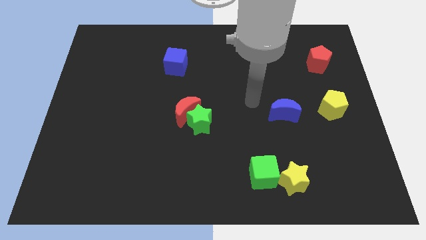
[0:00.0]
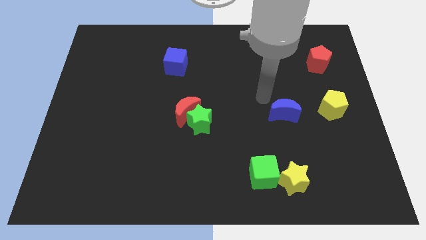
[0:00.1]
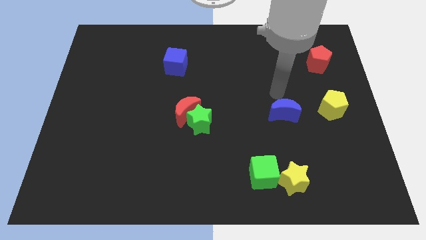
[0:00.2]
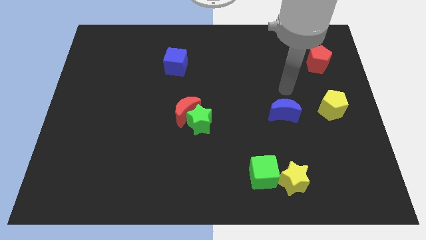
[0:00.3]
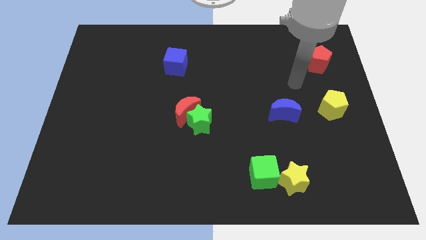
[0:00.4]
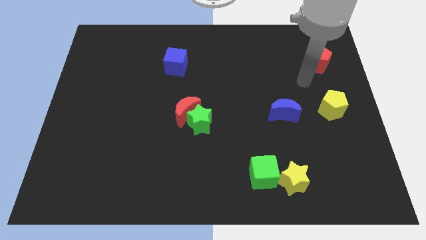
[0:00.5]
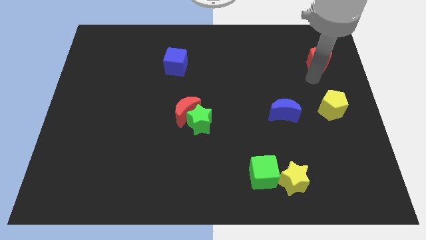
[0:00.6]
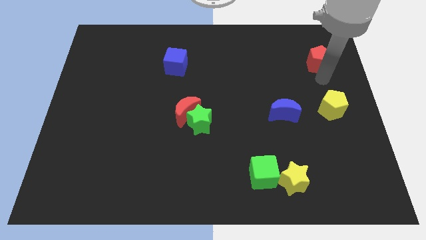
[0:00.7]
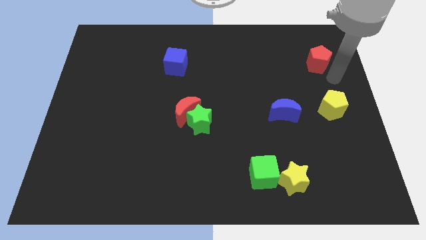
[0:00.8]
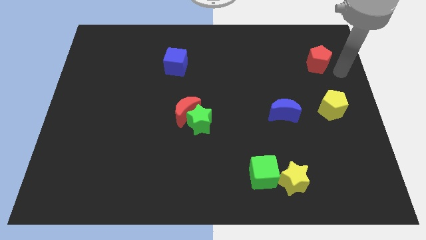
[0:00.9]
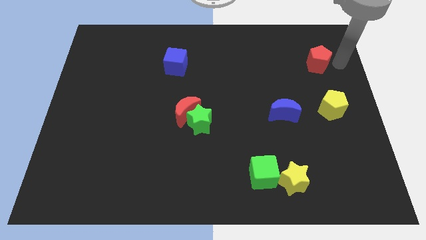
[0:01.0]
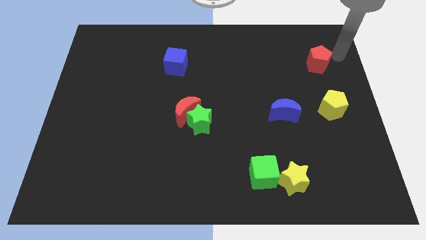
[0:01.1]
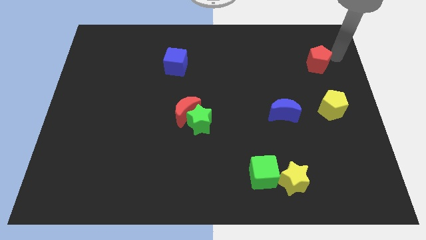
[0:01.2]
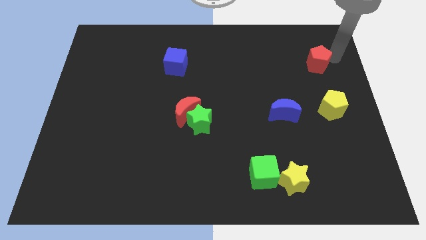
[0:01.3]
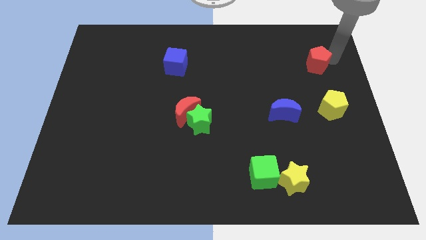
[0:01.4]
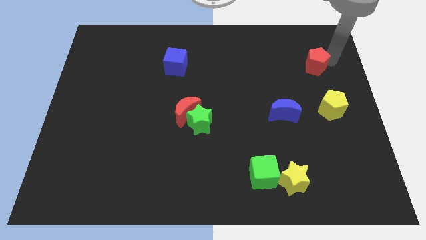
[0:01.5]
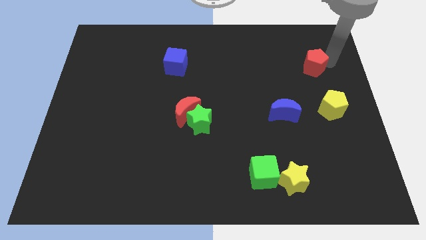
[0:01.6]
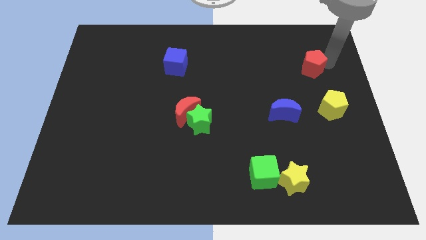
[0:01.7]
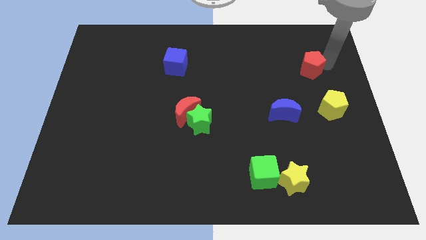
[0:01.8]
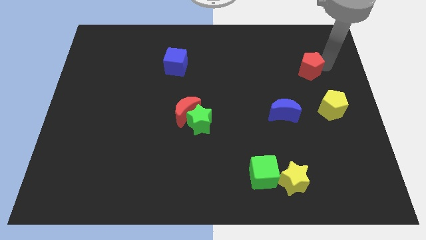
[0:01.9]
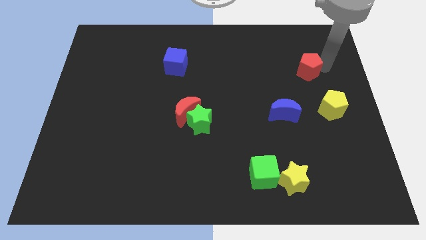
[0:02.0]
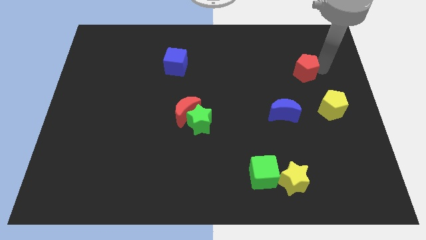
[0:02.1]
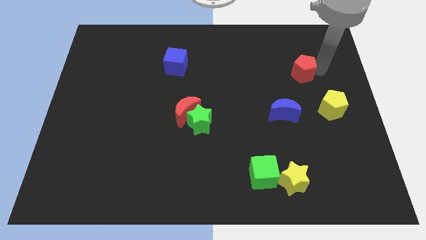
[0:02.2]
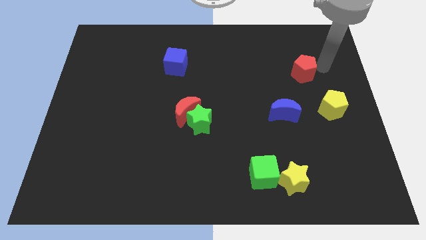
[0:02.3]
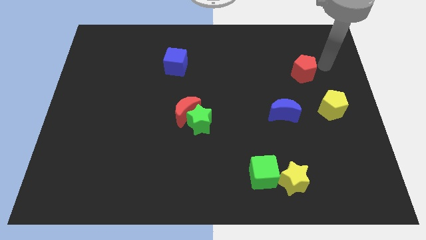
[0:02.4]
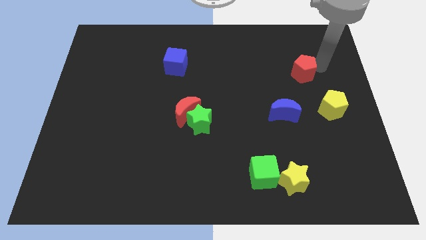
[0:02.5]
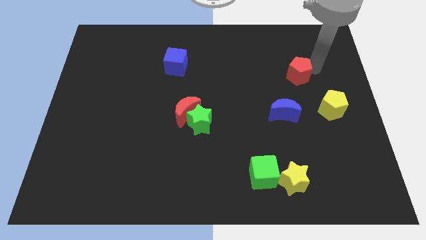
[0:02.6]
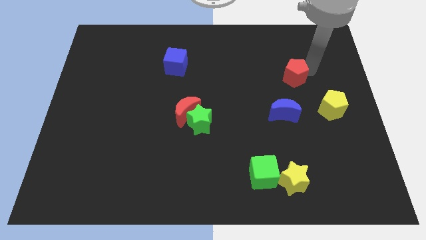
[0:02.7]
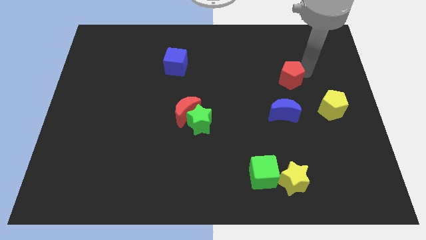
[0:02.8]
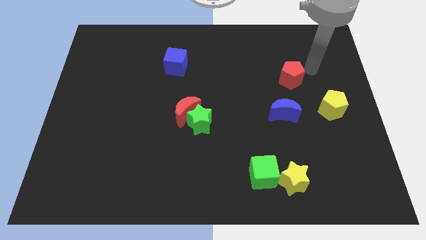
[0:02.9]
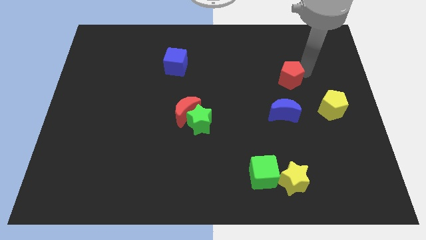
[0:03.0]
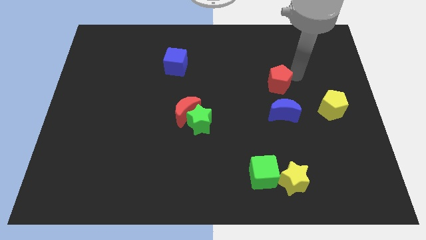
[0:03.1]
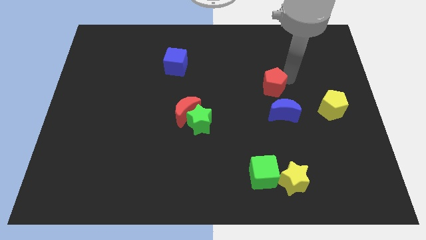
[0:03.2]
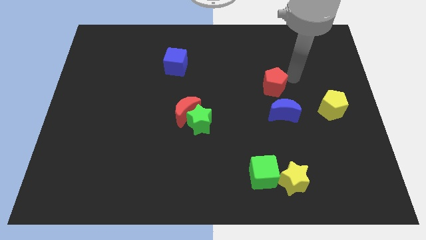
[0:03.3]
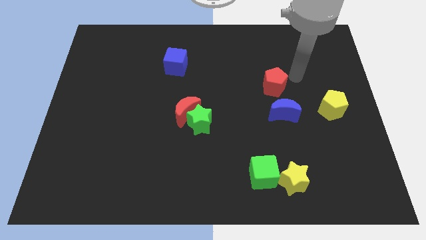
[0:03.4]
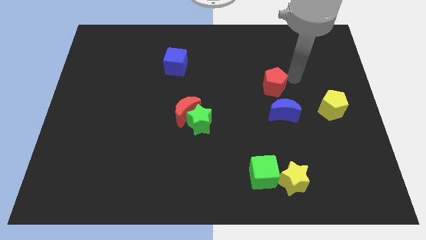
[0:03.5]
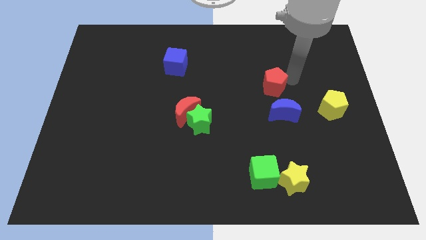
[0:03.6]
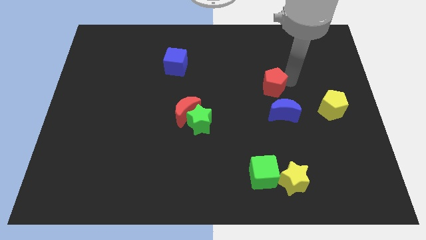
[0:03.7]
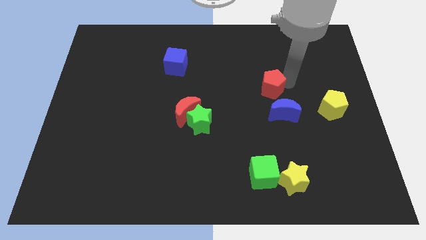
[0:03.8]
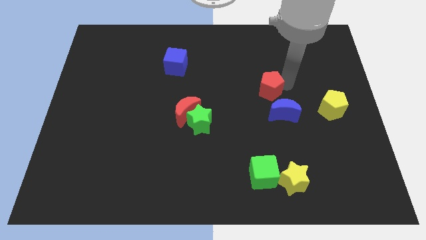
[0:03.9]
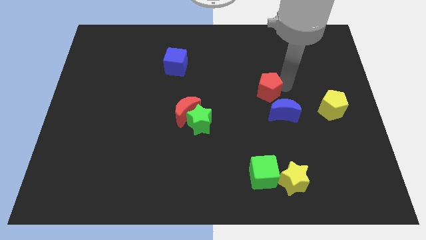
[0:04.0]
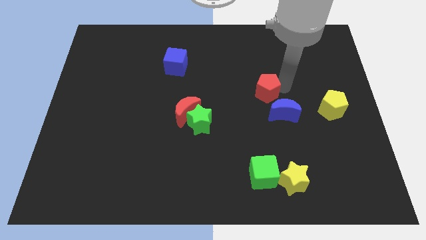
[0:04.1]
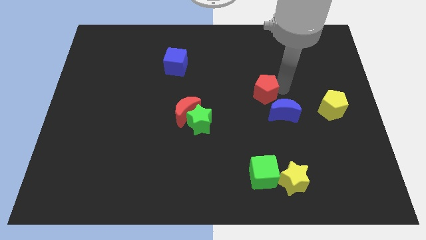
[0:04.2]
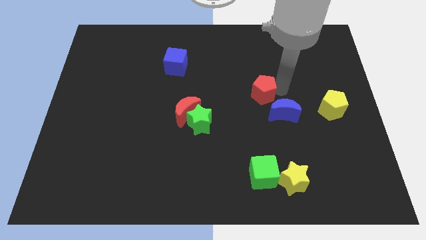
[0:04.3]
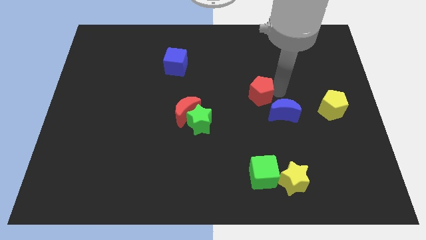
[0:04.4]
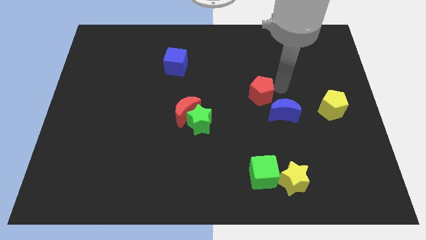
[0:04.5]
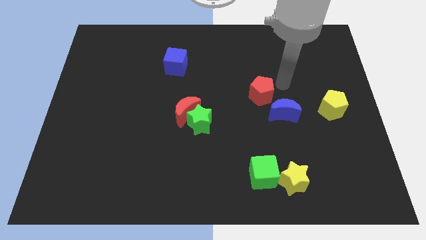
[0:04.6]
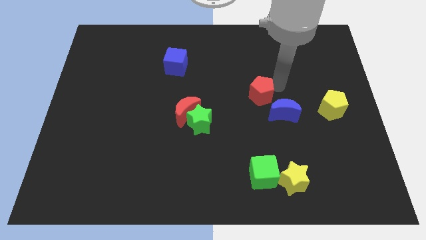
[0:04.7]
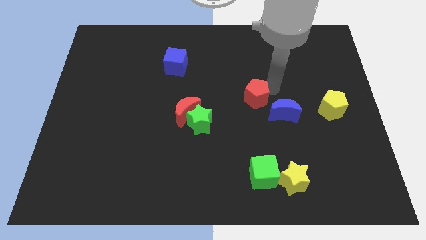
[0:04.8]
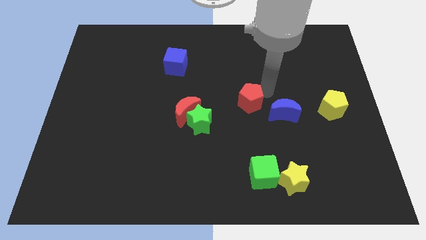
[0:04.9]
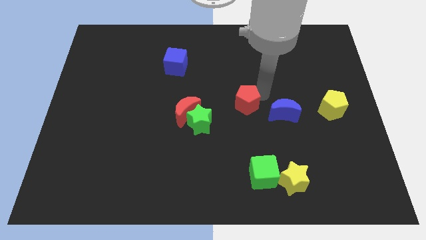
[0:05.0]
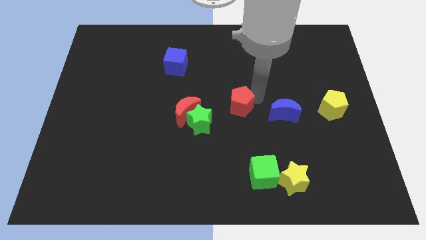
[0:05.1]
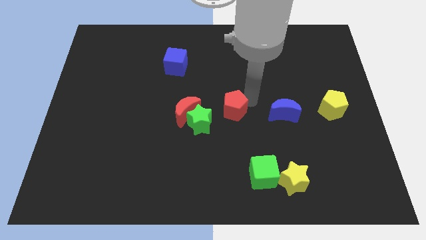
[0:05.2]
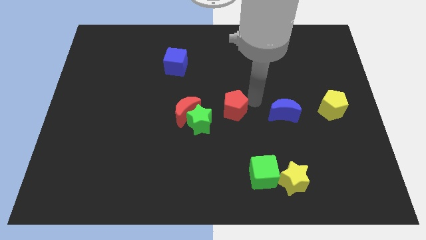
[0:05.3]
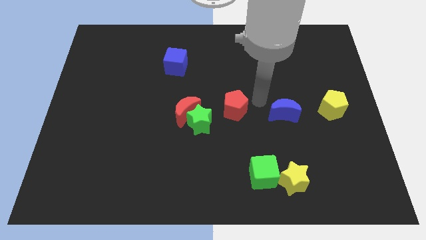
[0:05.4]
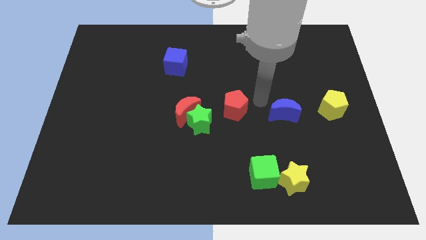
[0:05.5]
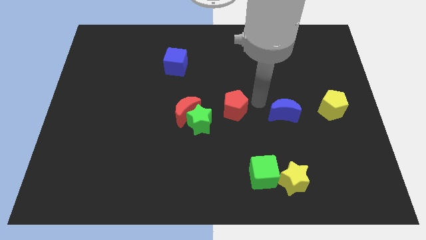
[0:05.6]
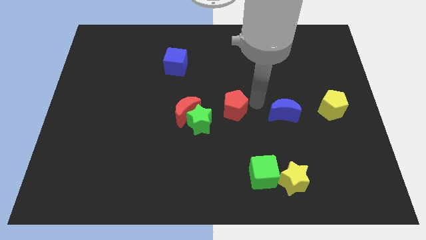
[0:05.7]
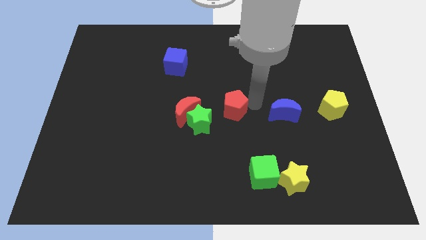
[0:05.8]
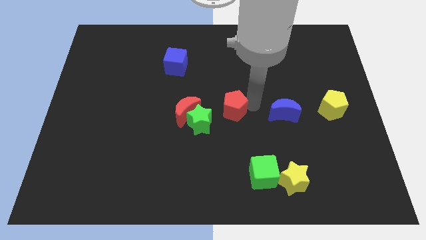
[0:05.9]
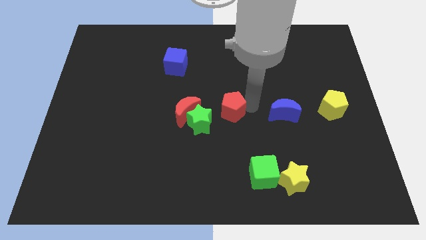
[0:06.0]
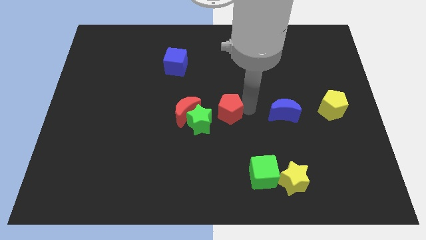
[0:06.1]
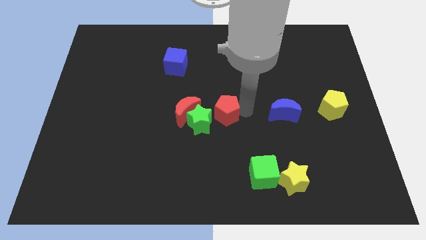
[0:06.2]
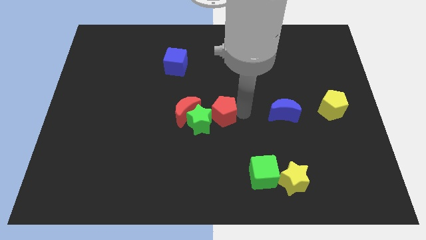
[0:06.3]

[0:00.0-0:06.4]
put the red pentagon towards the green star

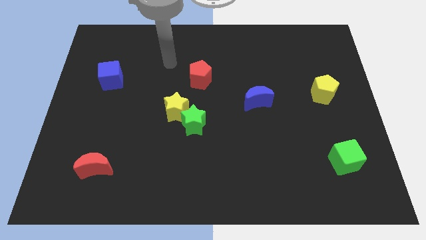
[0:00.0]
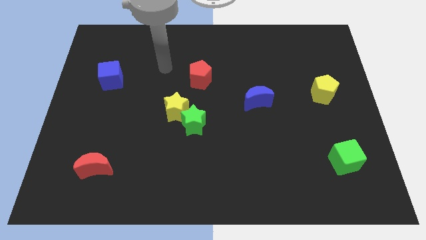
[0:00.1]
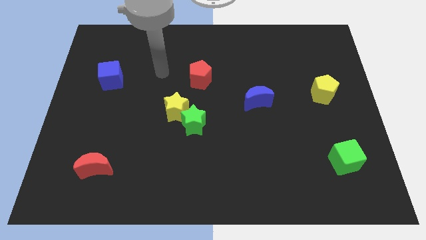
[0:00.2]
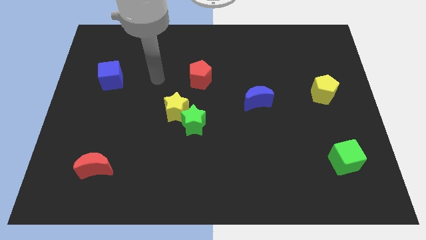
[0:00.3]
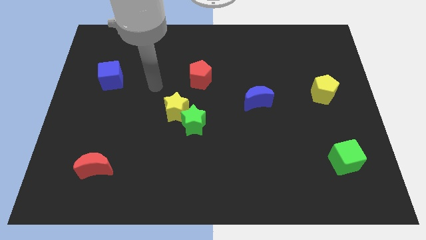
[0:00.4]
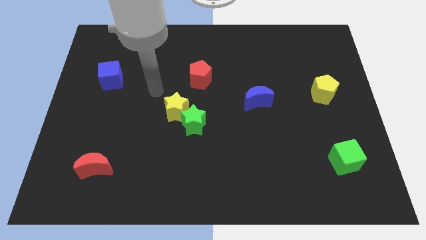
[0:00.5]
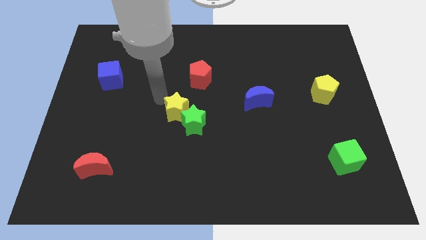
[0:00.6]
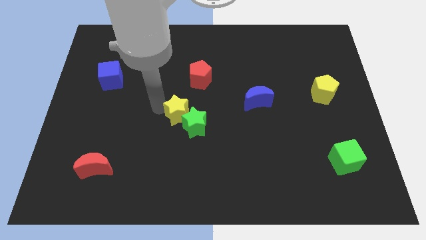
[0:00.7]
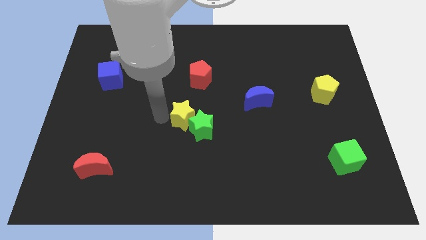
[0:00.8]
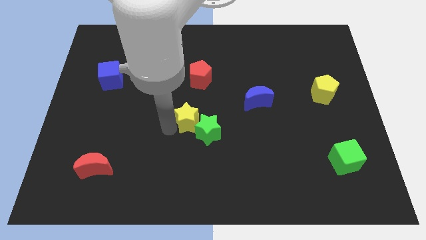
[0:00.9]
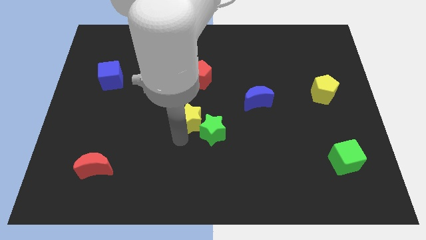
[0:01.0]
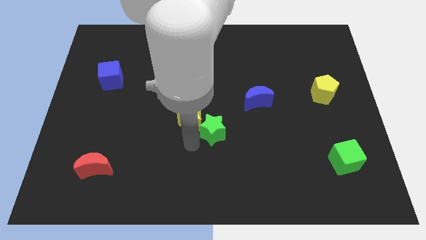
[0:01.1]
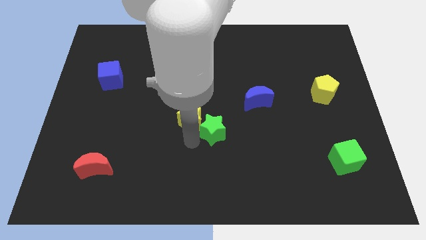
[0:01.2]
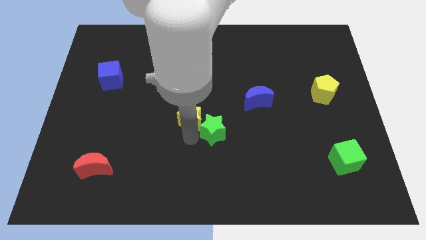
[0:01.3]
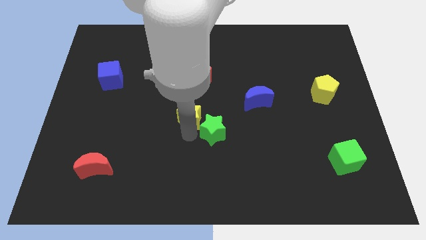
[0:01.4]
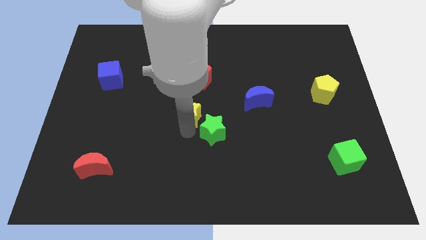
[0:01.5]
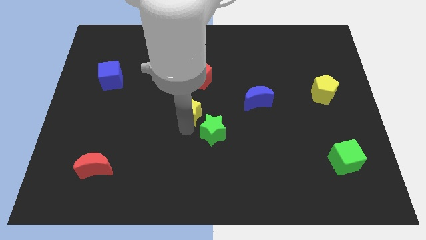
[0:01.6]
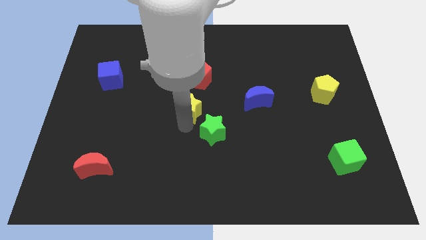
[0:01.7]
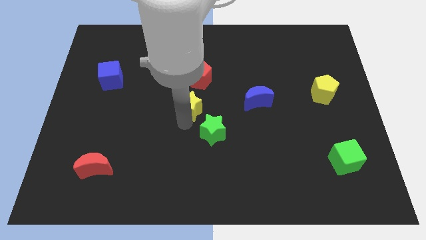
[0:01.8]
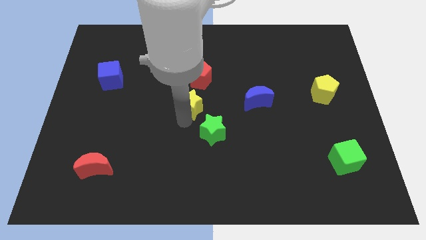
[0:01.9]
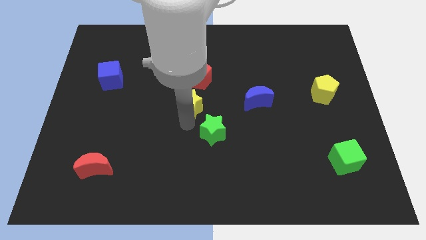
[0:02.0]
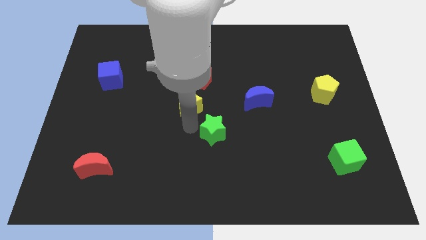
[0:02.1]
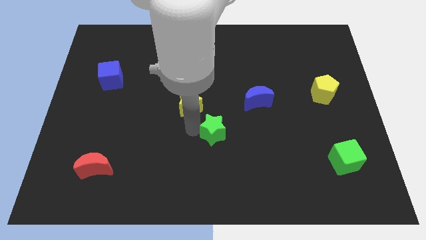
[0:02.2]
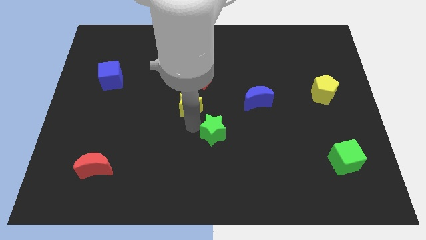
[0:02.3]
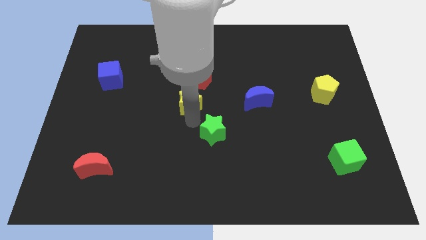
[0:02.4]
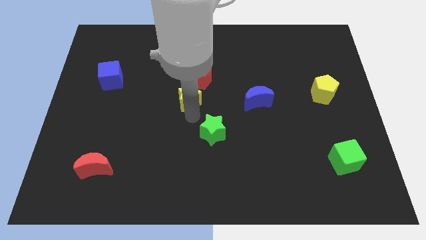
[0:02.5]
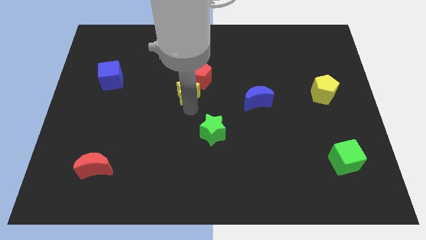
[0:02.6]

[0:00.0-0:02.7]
move the yellow star towards the red pentagon
